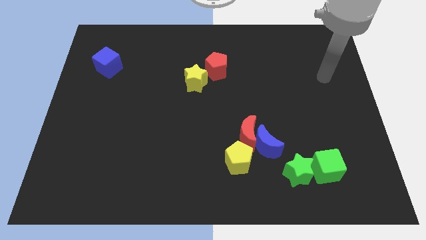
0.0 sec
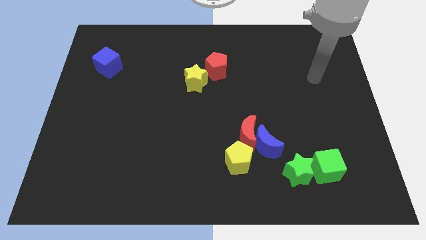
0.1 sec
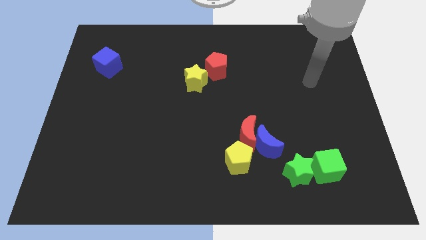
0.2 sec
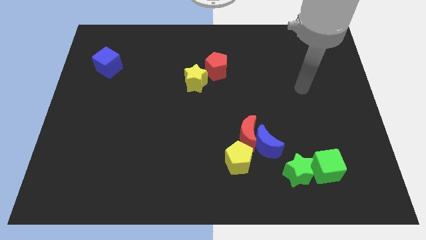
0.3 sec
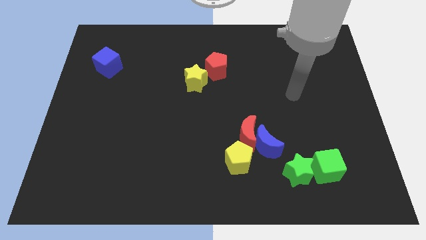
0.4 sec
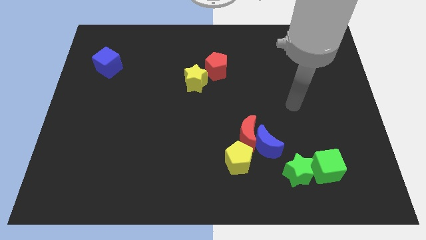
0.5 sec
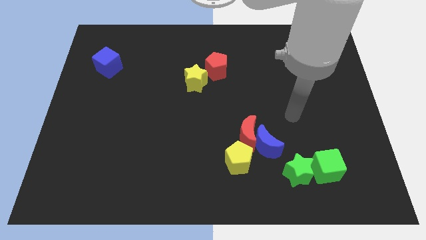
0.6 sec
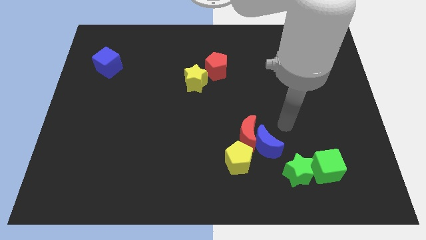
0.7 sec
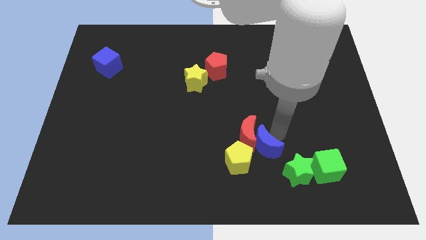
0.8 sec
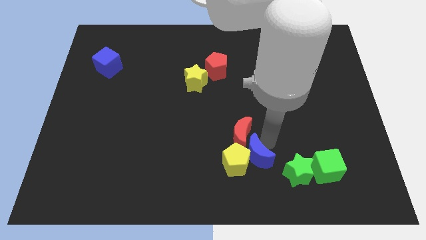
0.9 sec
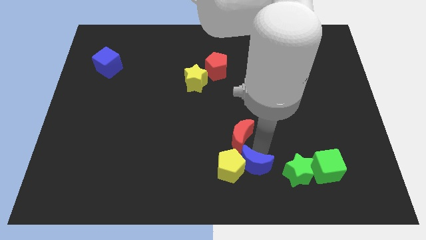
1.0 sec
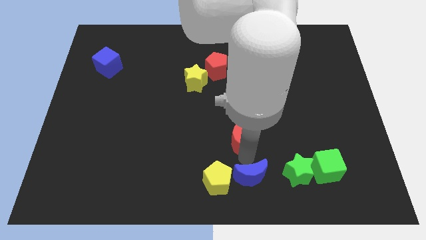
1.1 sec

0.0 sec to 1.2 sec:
pull the red moon apart from the blue moon and yellow pentagon

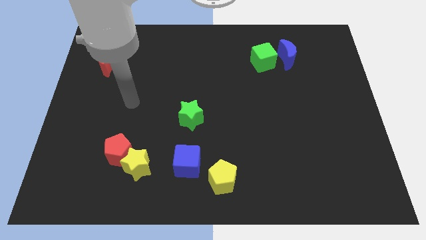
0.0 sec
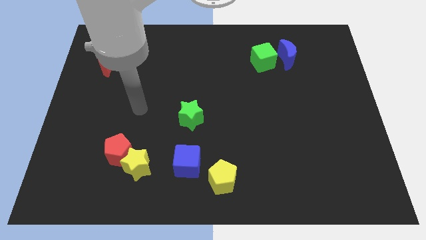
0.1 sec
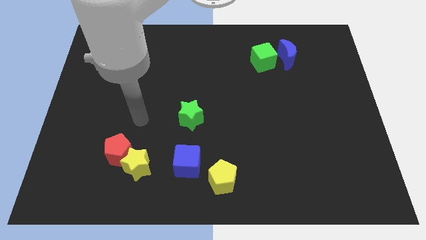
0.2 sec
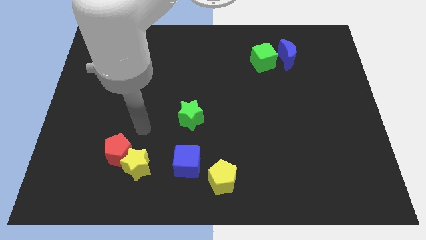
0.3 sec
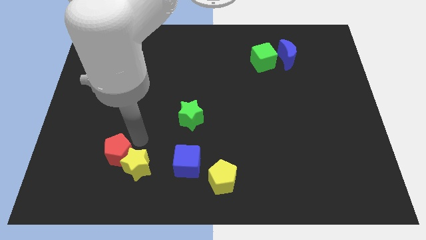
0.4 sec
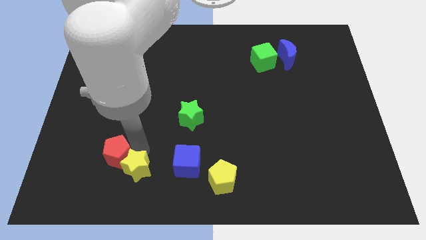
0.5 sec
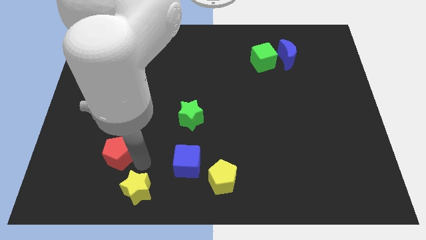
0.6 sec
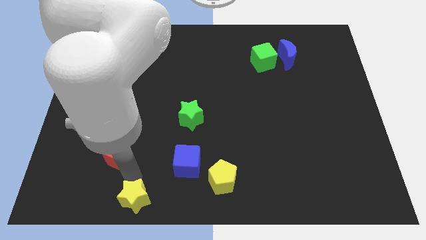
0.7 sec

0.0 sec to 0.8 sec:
move the red pentagon away from the yellow star

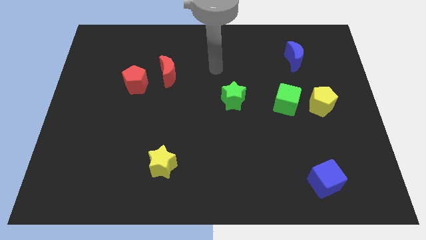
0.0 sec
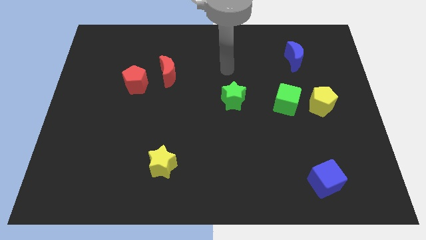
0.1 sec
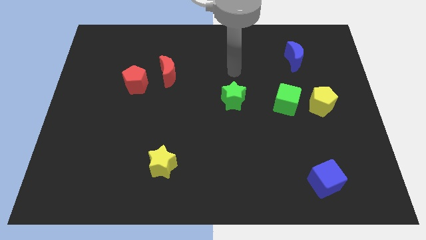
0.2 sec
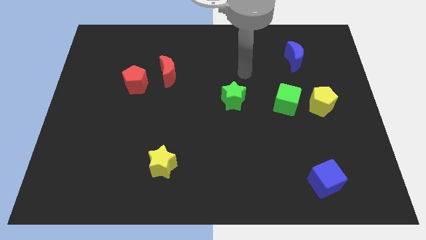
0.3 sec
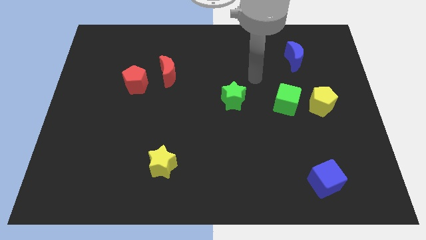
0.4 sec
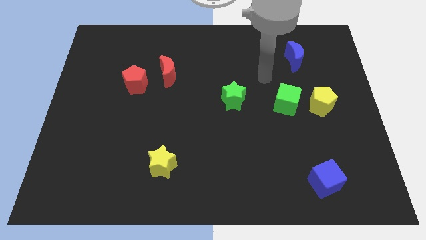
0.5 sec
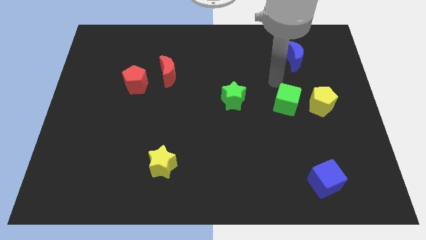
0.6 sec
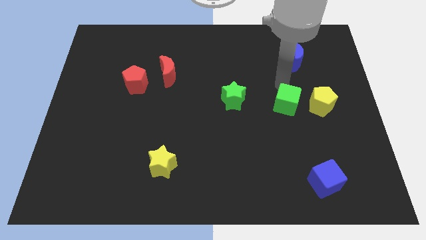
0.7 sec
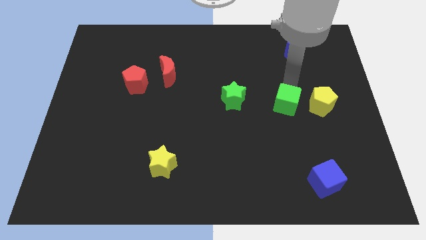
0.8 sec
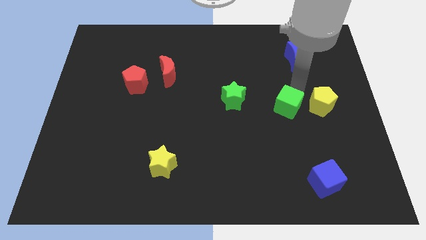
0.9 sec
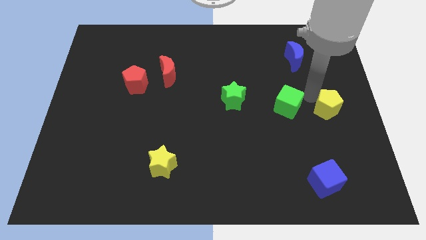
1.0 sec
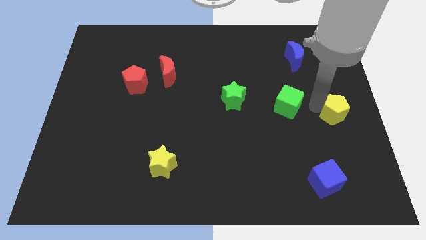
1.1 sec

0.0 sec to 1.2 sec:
pull the green cube apart from the yellow pentagon

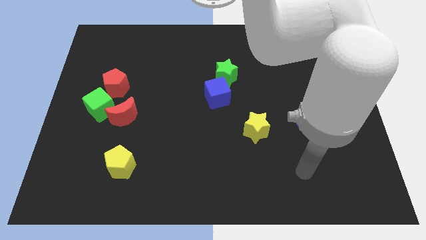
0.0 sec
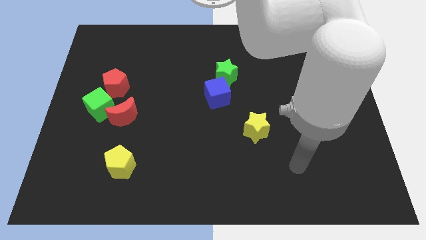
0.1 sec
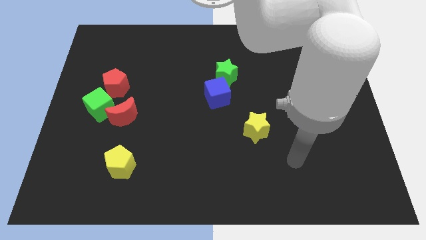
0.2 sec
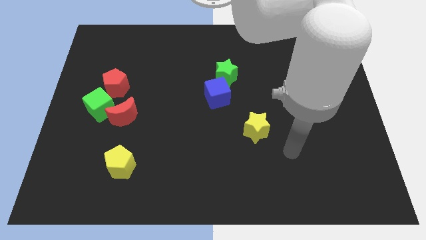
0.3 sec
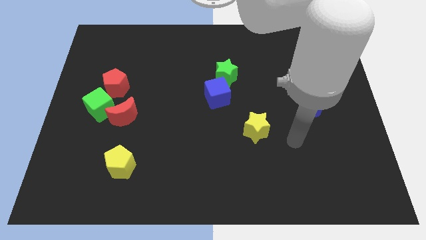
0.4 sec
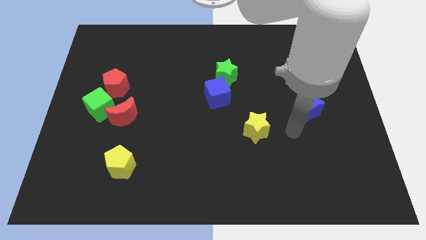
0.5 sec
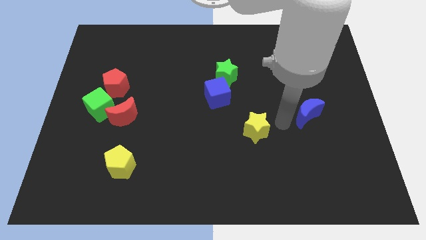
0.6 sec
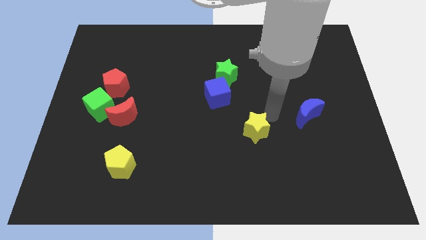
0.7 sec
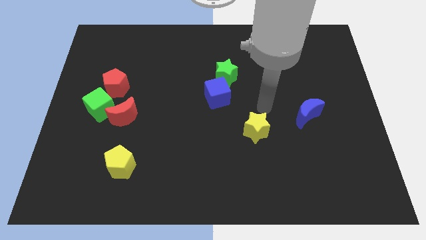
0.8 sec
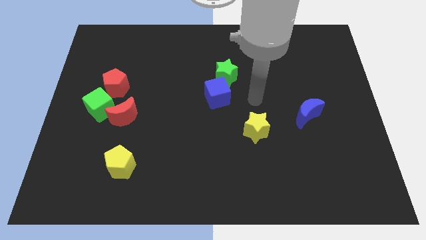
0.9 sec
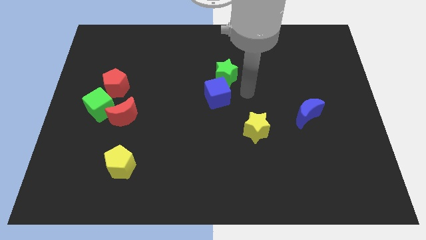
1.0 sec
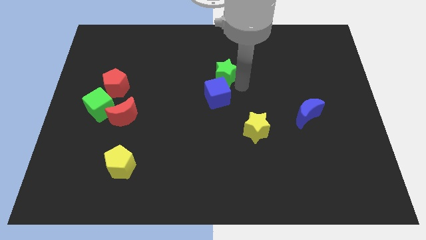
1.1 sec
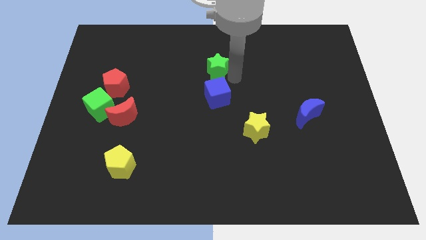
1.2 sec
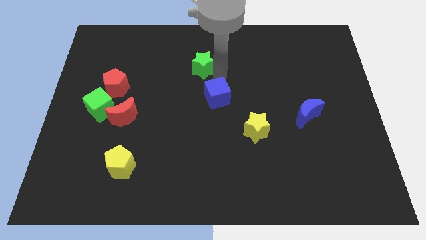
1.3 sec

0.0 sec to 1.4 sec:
separate the blue cube from the green star

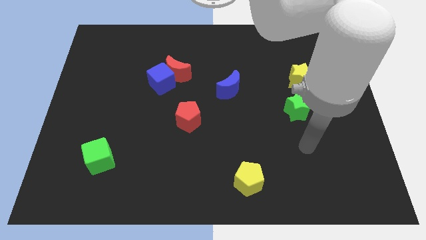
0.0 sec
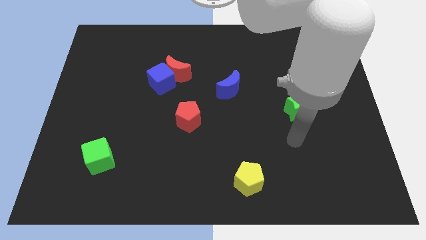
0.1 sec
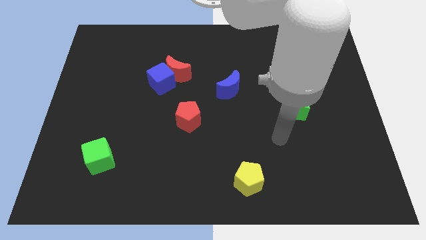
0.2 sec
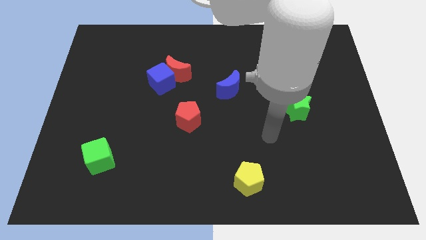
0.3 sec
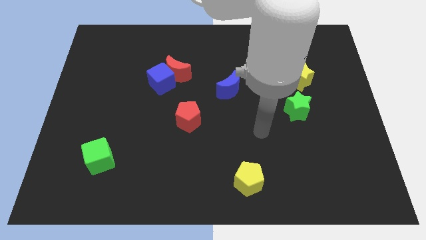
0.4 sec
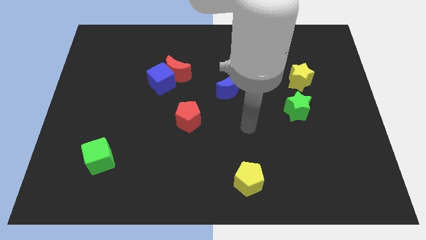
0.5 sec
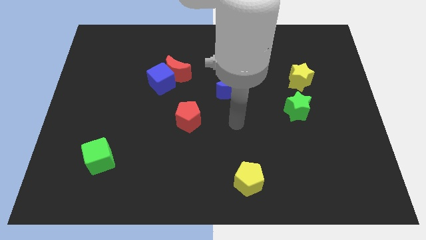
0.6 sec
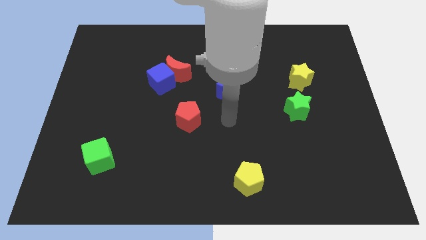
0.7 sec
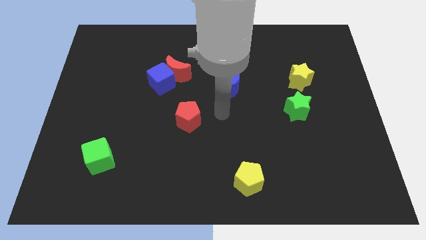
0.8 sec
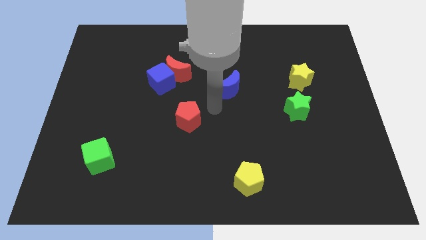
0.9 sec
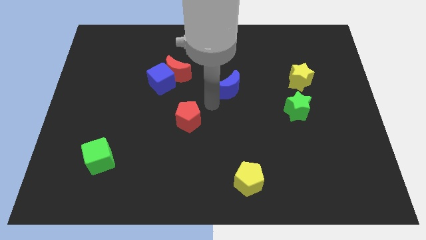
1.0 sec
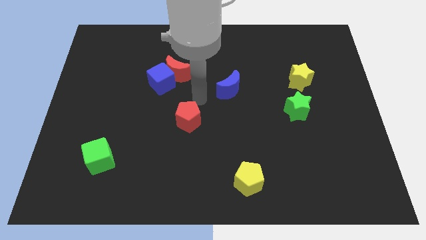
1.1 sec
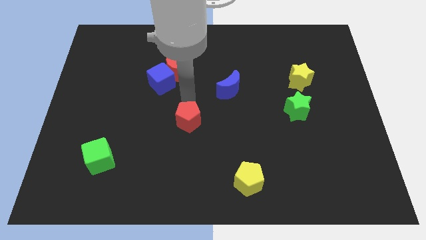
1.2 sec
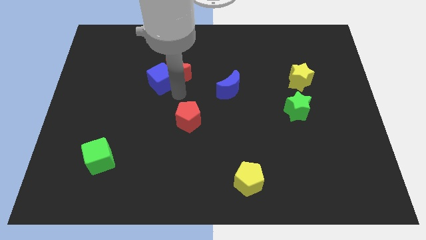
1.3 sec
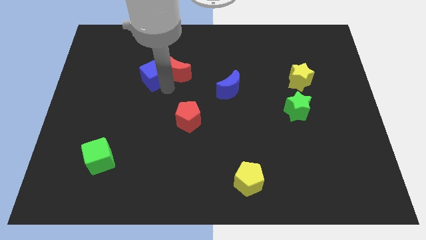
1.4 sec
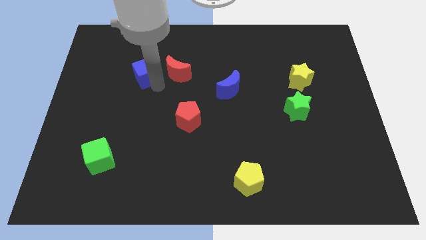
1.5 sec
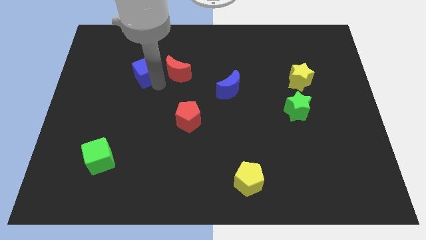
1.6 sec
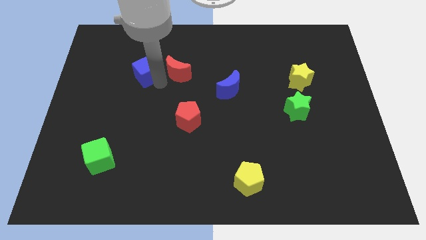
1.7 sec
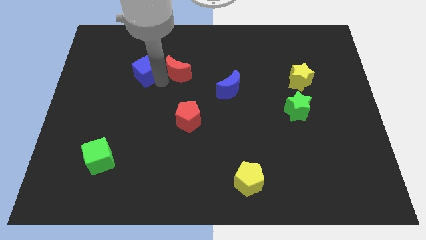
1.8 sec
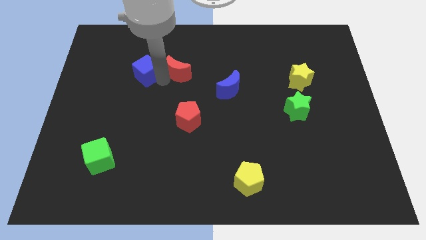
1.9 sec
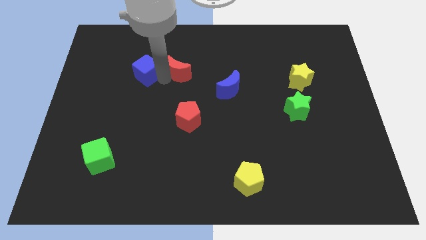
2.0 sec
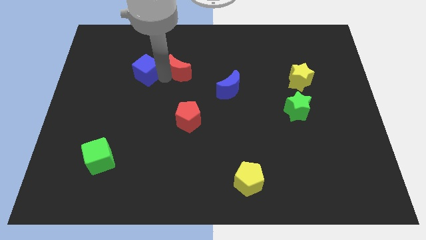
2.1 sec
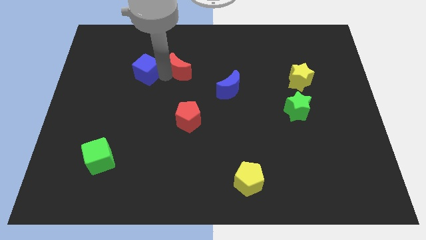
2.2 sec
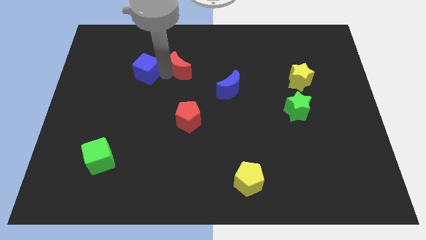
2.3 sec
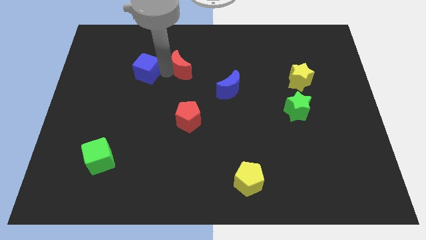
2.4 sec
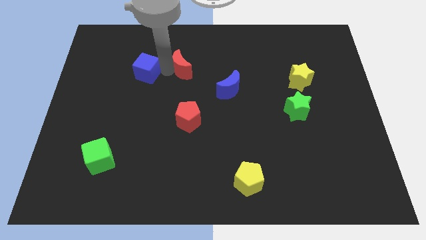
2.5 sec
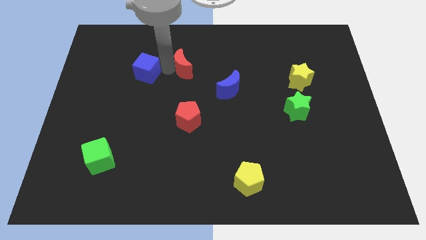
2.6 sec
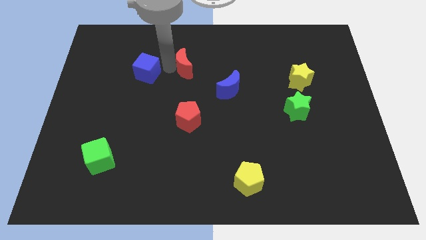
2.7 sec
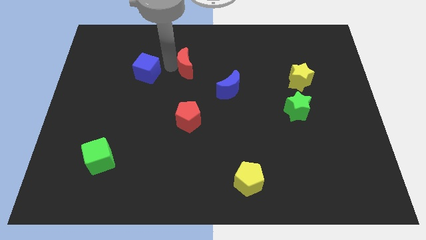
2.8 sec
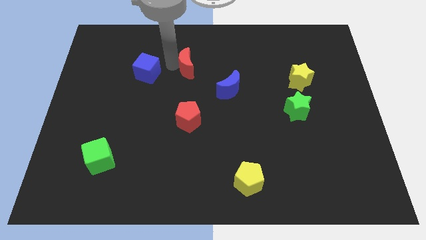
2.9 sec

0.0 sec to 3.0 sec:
pull the red moon apart from the blue cube

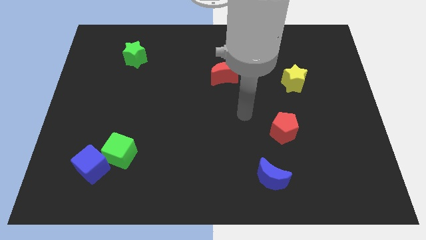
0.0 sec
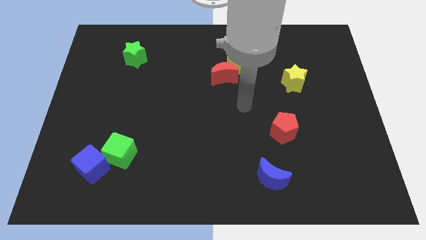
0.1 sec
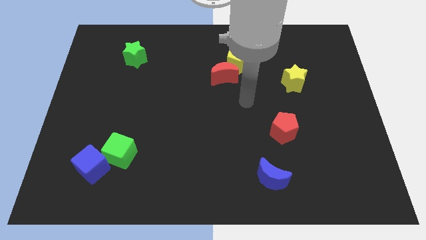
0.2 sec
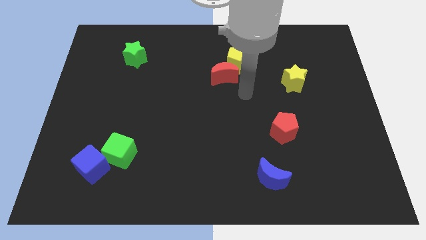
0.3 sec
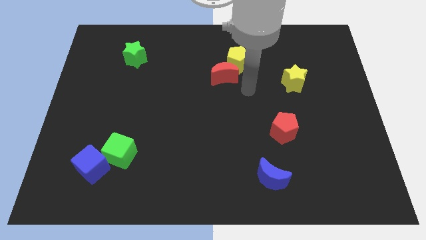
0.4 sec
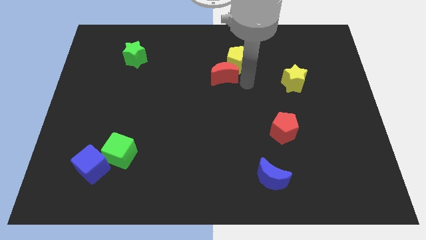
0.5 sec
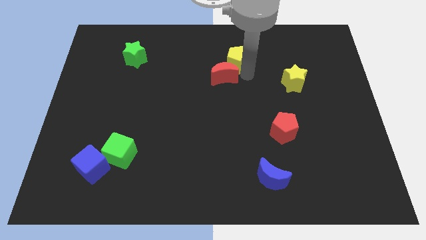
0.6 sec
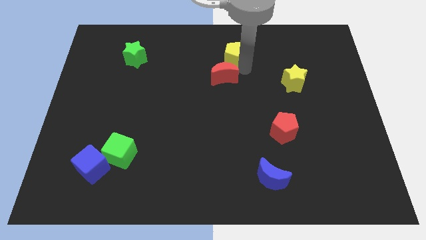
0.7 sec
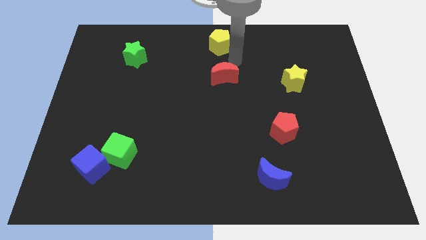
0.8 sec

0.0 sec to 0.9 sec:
separate the red moon from the yellow pentagon

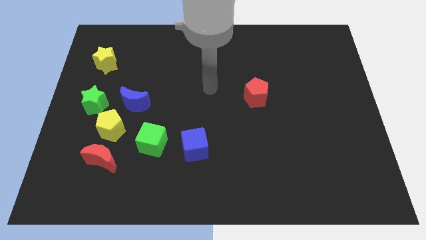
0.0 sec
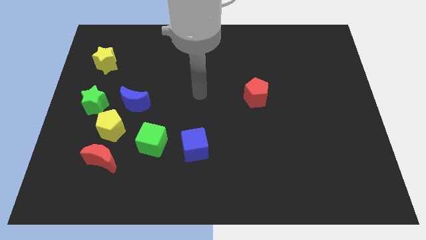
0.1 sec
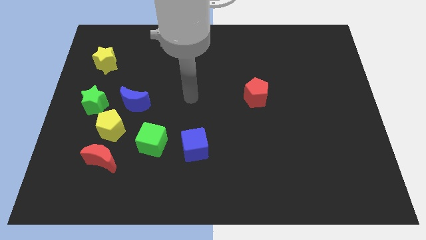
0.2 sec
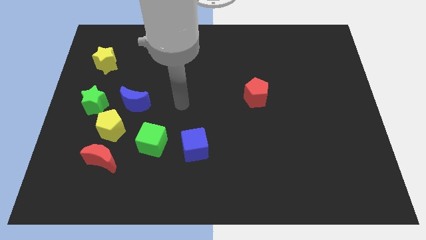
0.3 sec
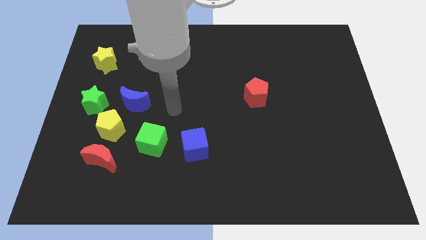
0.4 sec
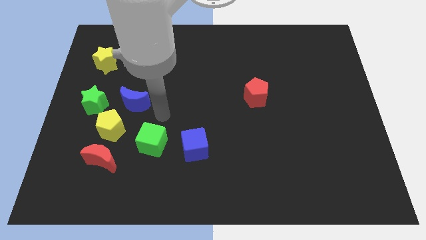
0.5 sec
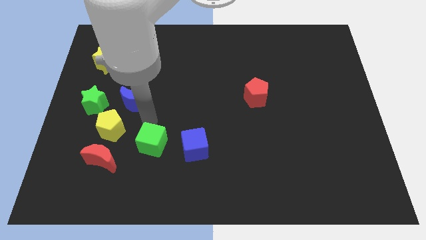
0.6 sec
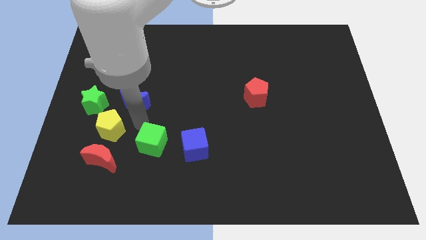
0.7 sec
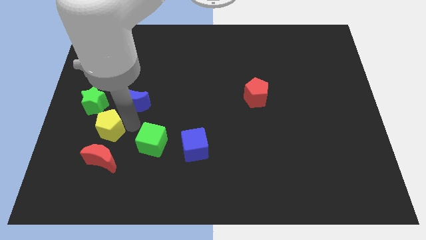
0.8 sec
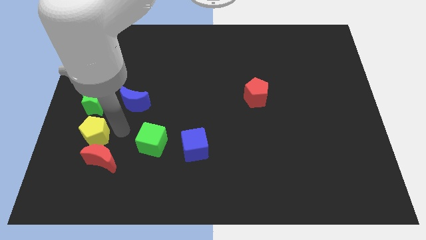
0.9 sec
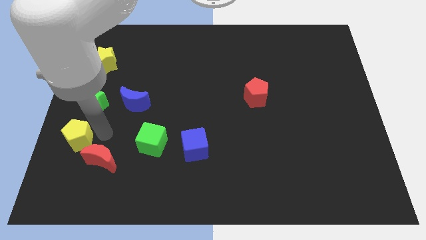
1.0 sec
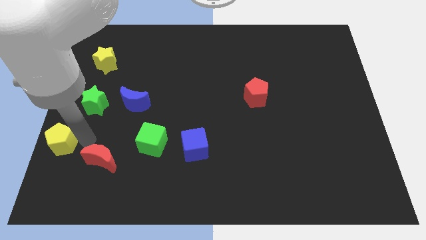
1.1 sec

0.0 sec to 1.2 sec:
pull the red moon apart from the yellow pentagon
